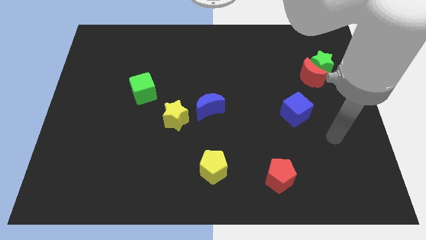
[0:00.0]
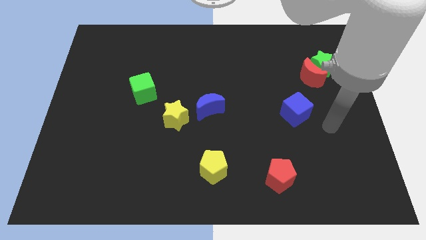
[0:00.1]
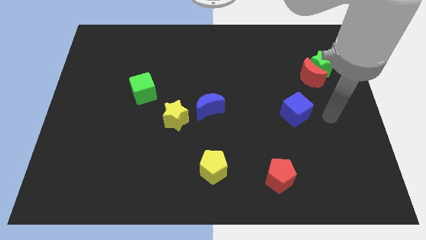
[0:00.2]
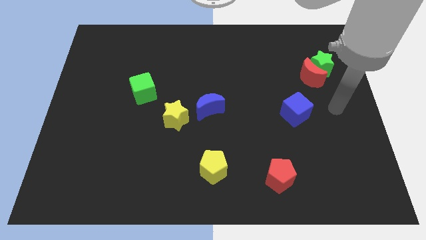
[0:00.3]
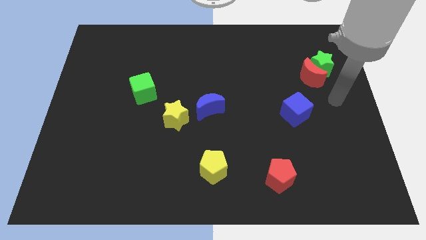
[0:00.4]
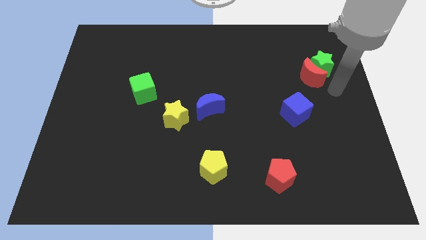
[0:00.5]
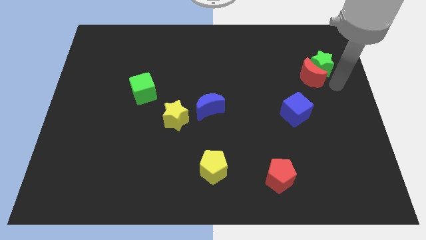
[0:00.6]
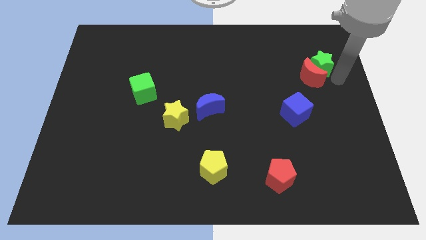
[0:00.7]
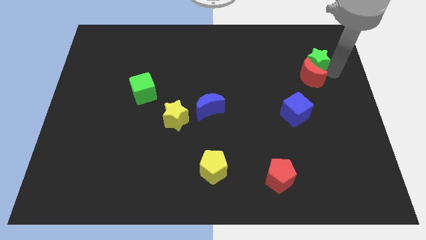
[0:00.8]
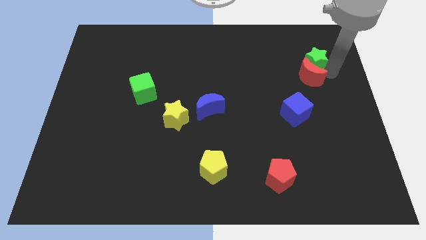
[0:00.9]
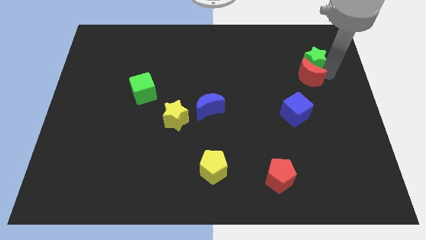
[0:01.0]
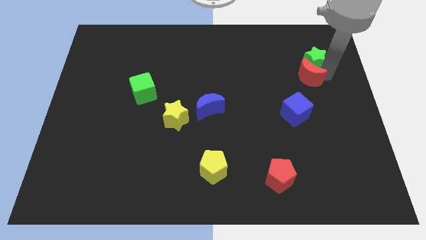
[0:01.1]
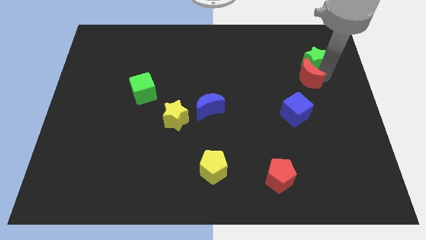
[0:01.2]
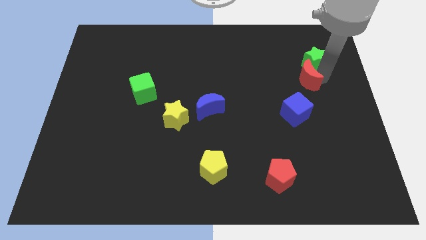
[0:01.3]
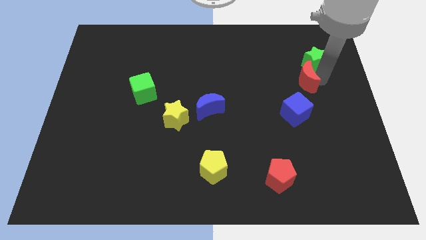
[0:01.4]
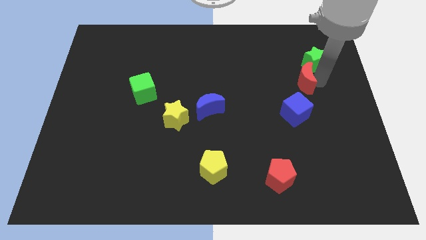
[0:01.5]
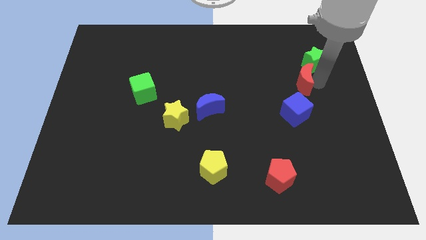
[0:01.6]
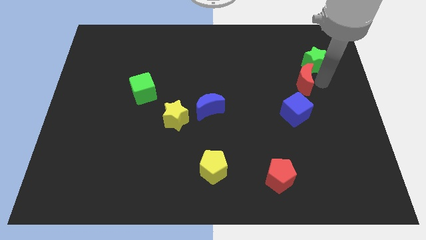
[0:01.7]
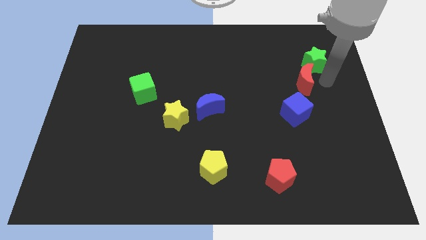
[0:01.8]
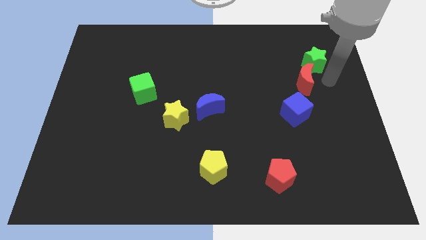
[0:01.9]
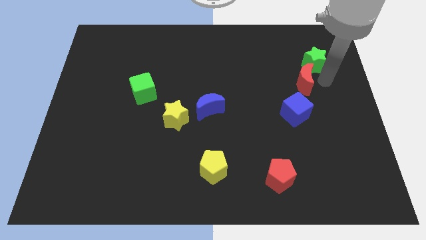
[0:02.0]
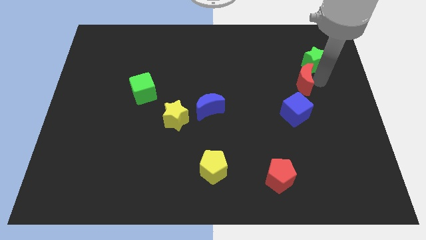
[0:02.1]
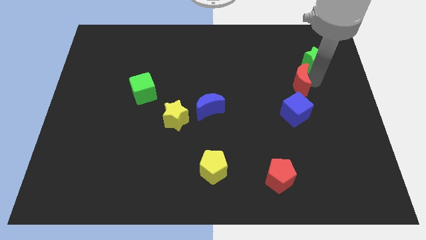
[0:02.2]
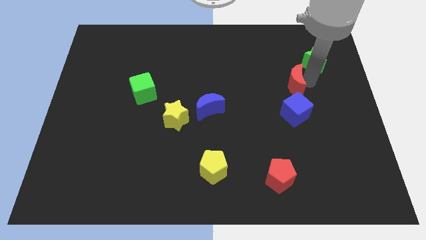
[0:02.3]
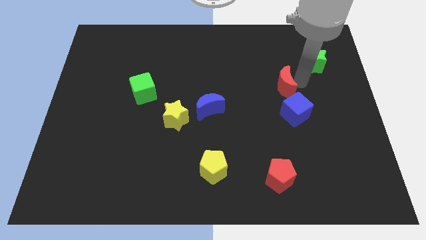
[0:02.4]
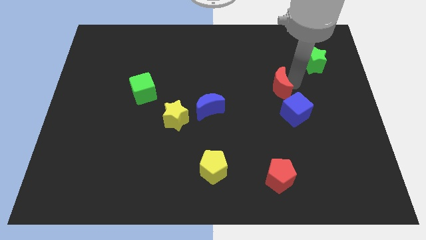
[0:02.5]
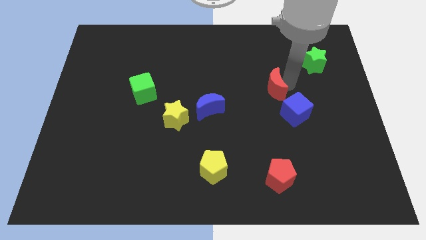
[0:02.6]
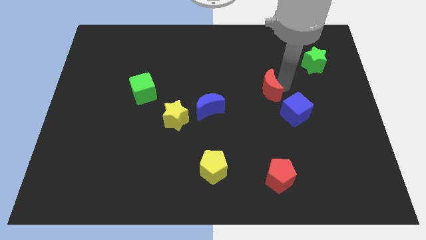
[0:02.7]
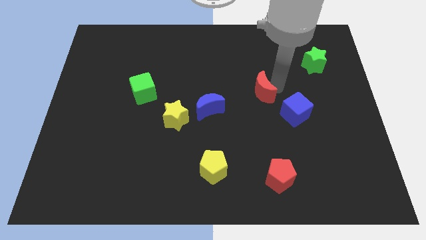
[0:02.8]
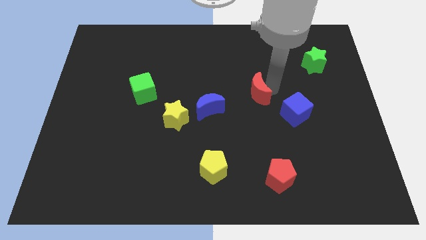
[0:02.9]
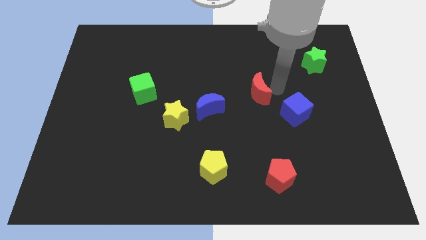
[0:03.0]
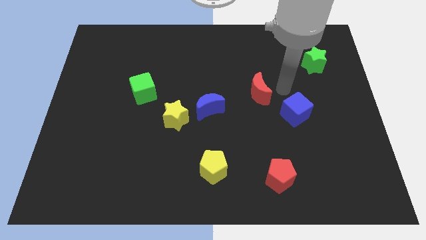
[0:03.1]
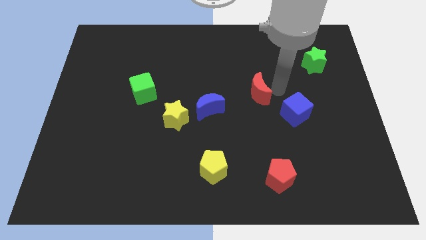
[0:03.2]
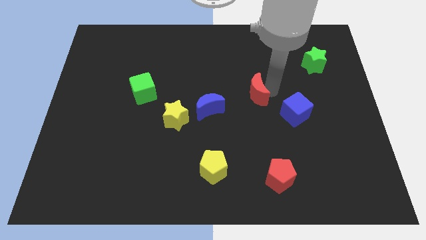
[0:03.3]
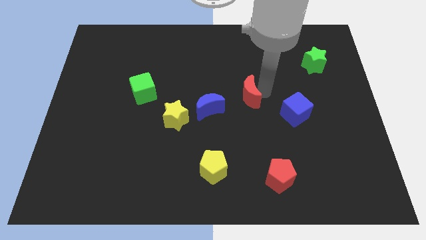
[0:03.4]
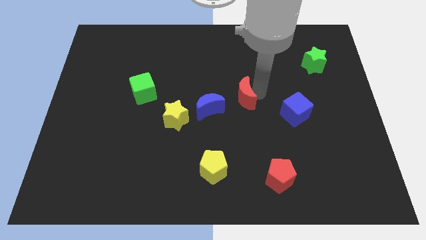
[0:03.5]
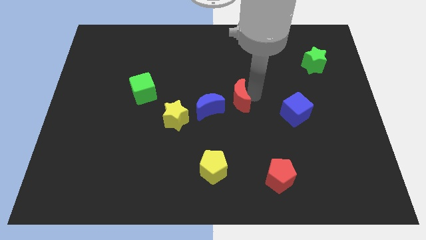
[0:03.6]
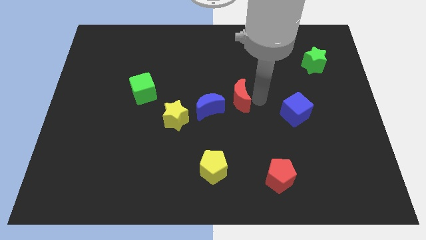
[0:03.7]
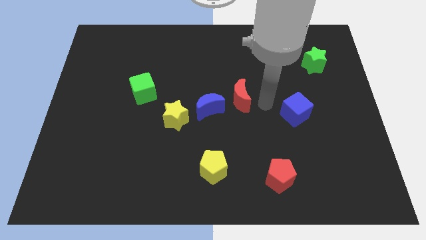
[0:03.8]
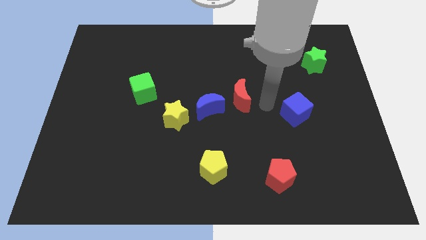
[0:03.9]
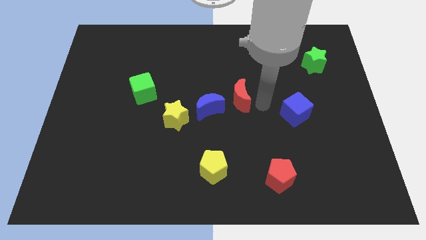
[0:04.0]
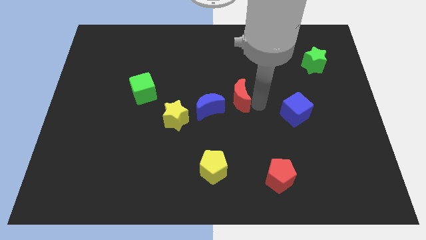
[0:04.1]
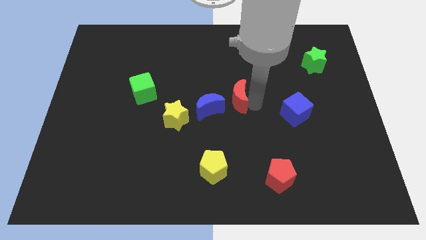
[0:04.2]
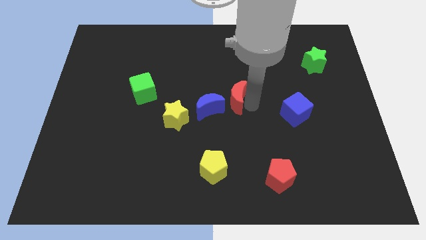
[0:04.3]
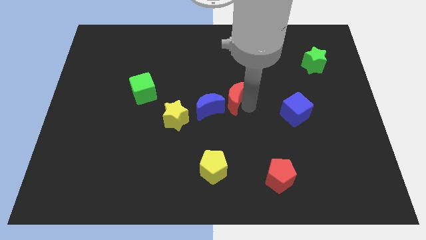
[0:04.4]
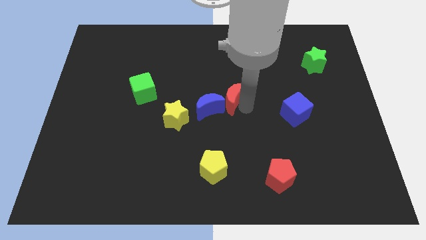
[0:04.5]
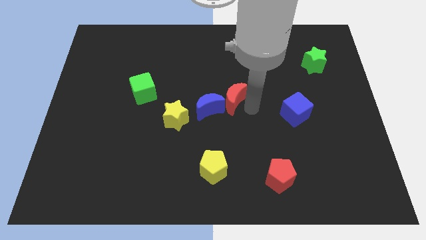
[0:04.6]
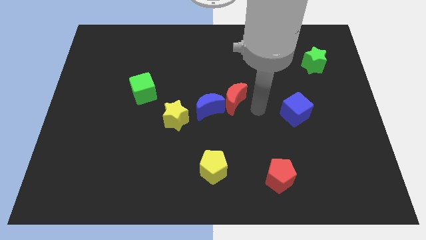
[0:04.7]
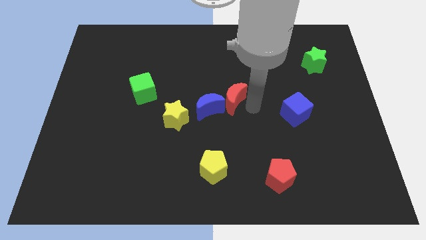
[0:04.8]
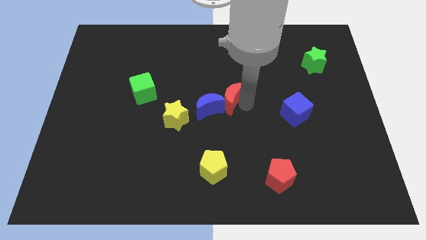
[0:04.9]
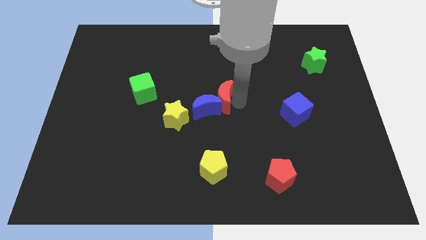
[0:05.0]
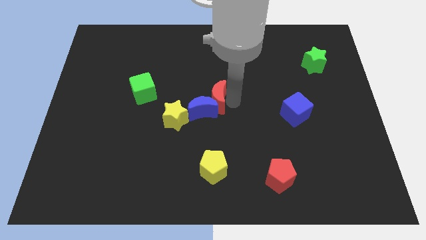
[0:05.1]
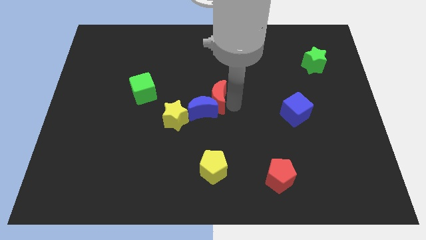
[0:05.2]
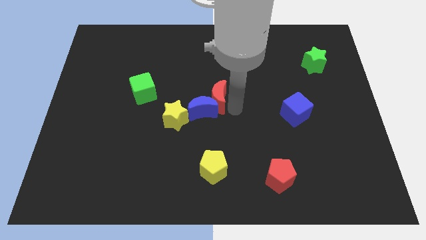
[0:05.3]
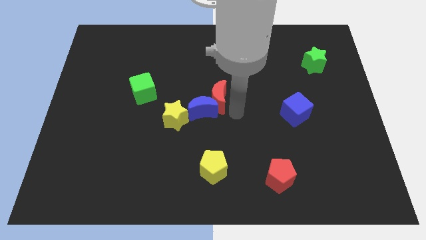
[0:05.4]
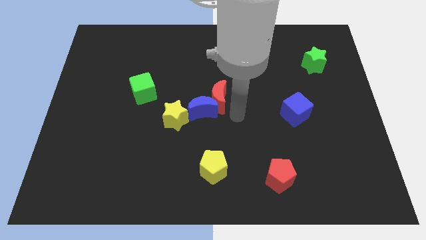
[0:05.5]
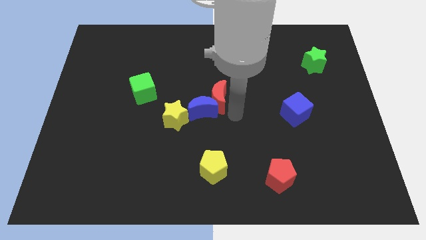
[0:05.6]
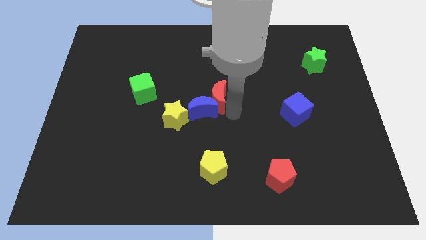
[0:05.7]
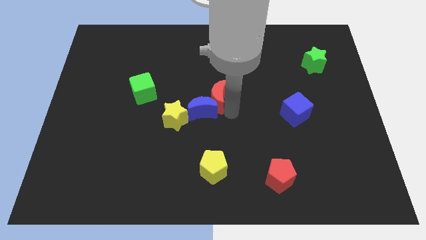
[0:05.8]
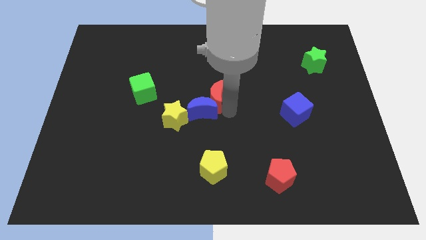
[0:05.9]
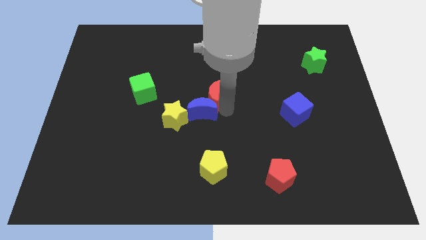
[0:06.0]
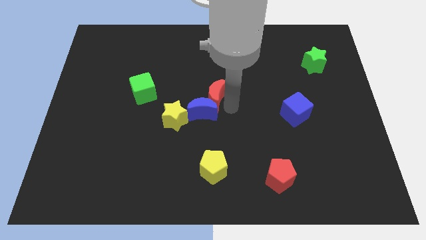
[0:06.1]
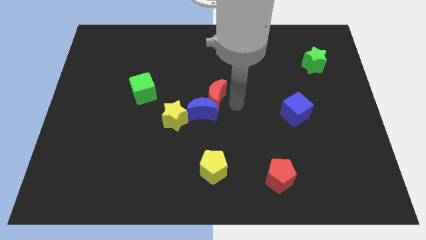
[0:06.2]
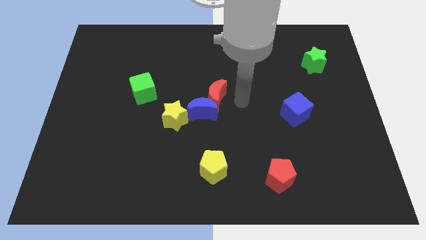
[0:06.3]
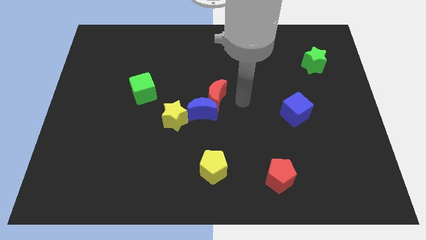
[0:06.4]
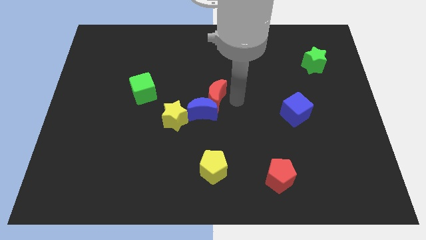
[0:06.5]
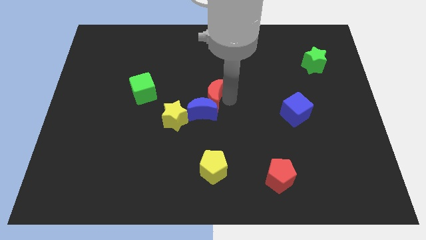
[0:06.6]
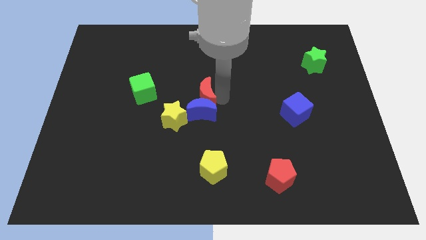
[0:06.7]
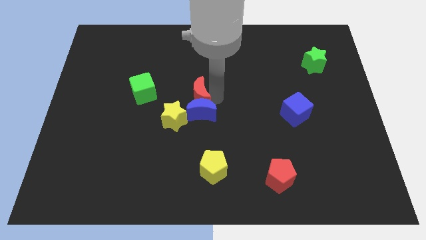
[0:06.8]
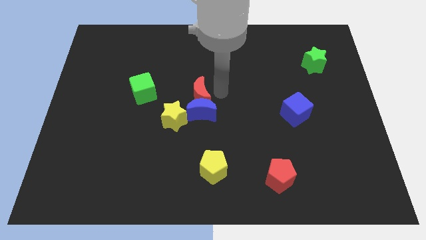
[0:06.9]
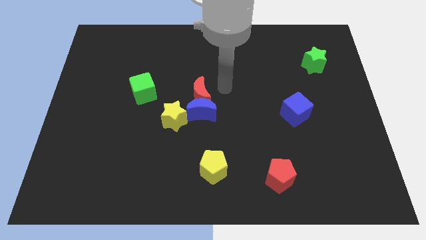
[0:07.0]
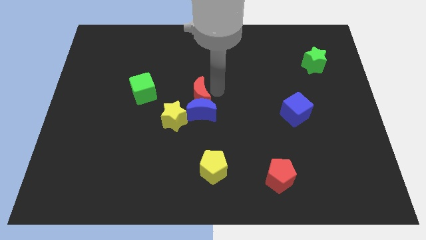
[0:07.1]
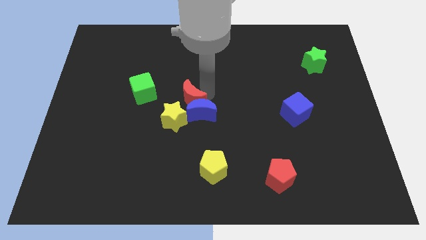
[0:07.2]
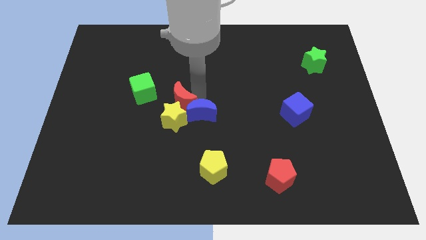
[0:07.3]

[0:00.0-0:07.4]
slide the red moon to the left of the blue moon
